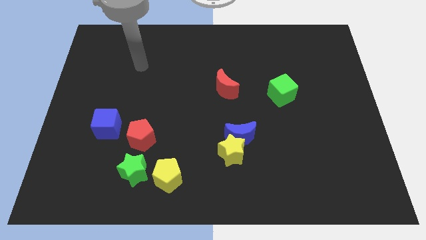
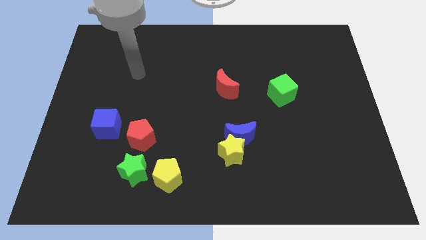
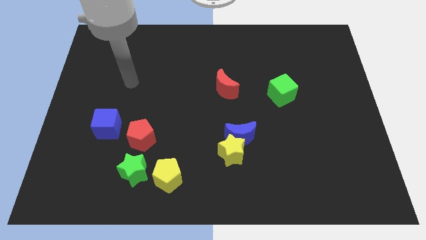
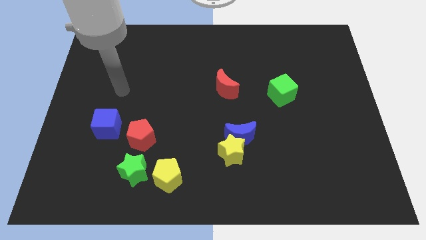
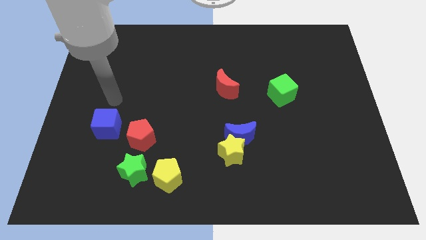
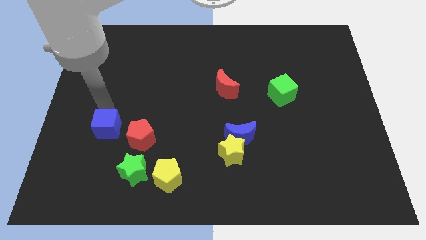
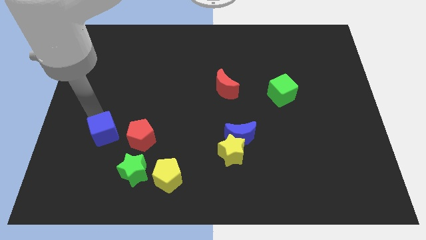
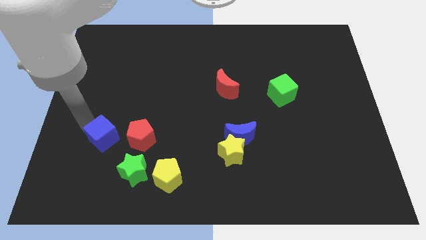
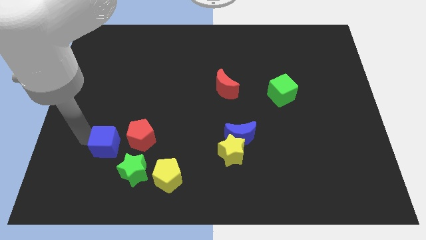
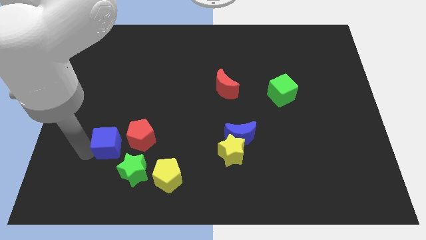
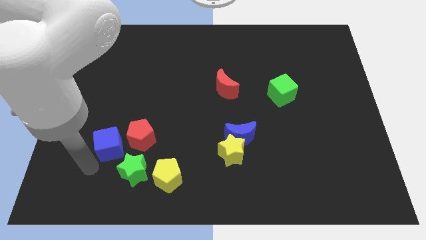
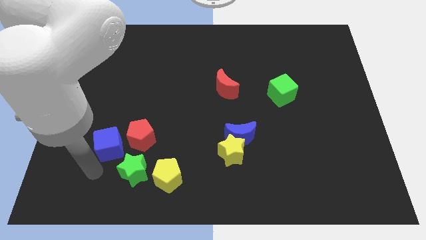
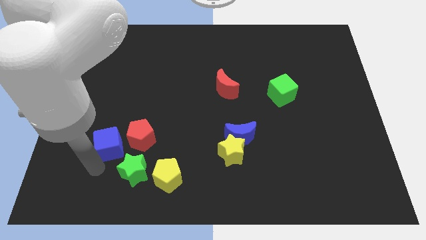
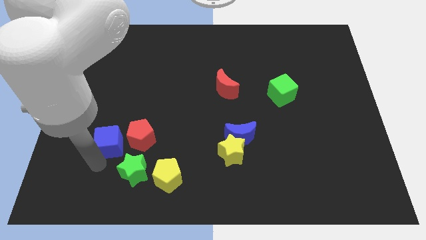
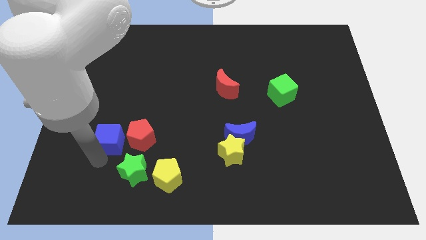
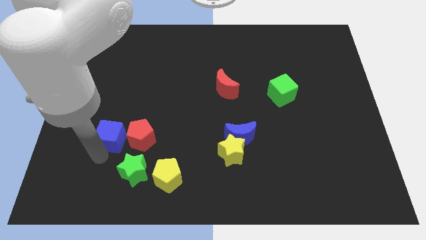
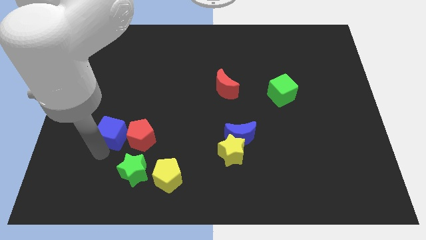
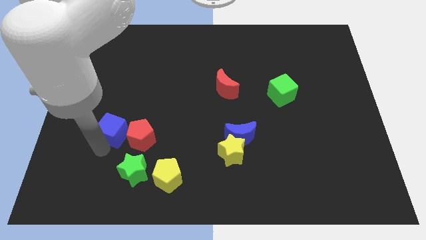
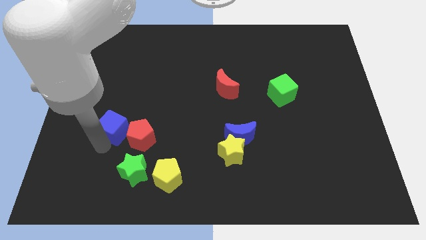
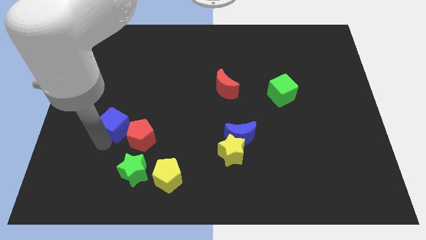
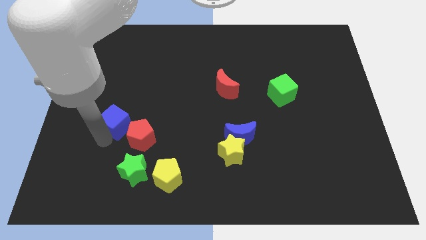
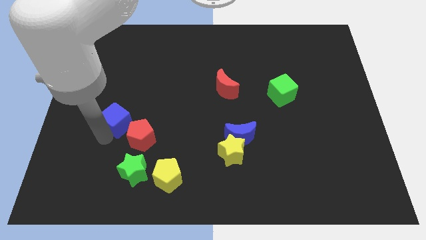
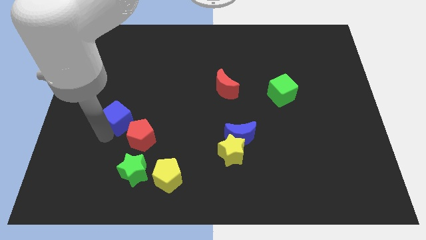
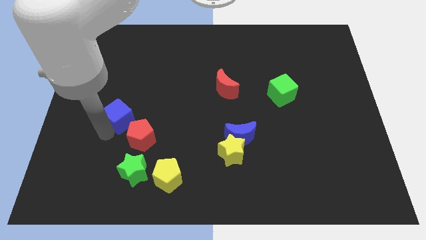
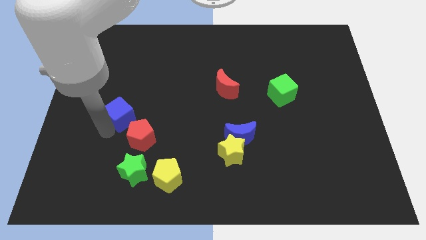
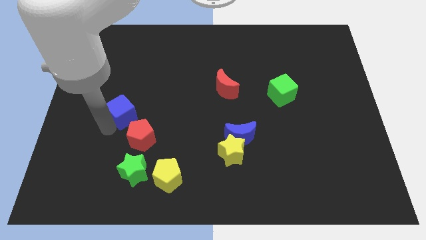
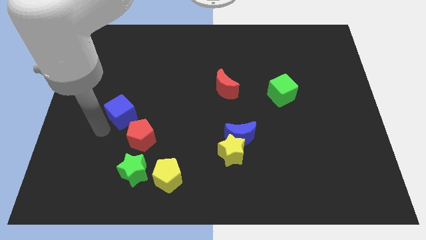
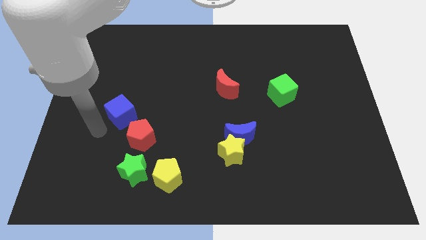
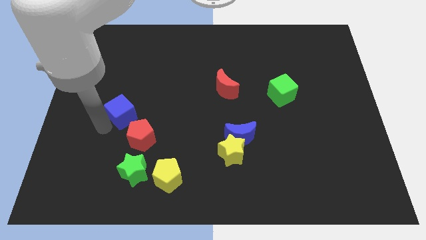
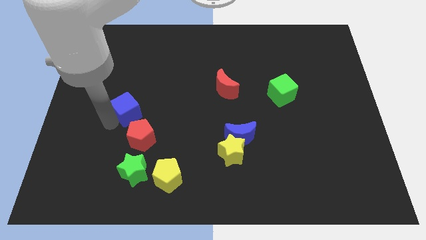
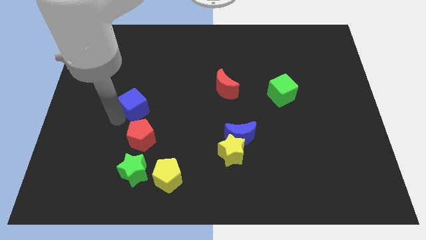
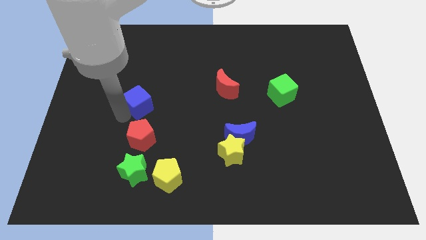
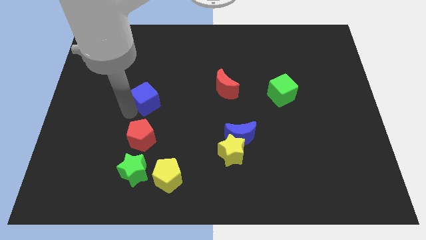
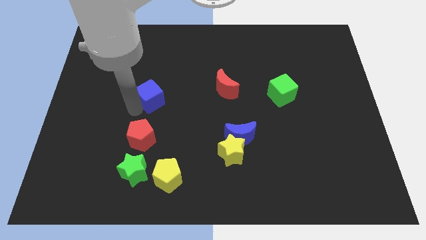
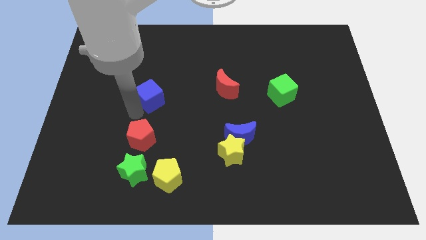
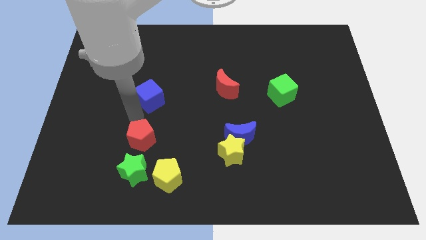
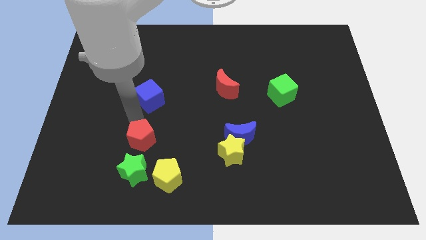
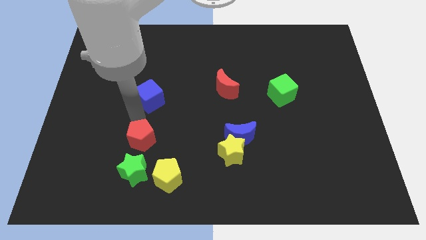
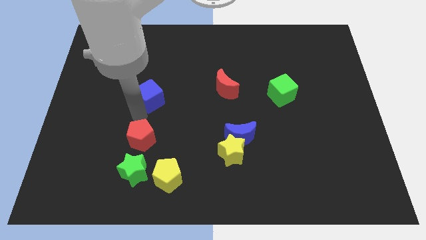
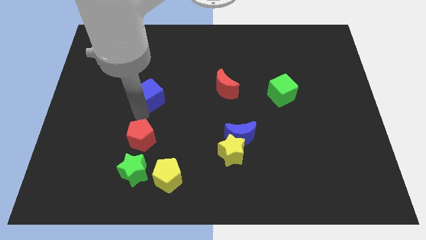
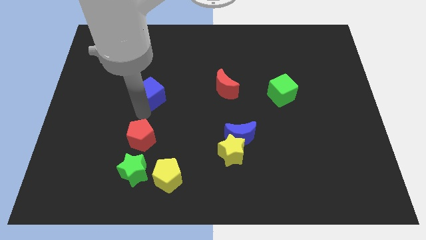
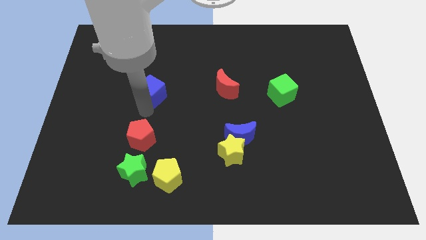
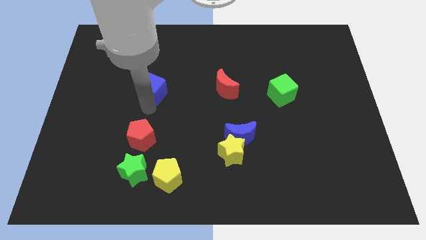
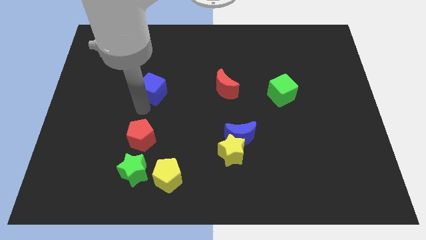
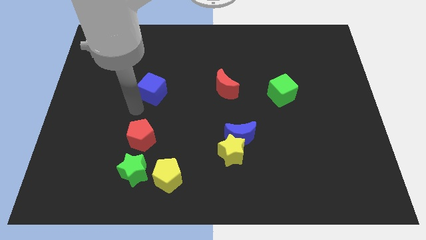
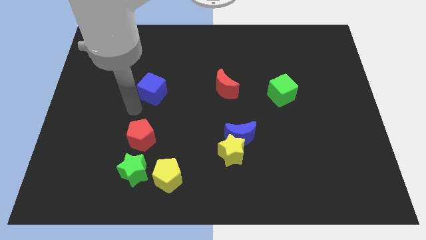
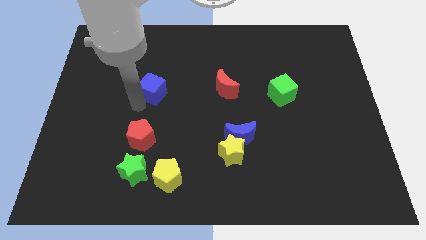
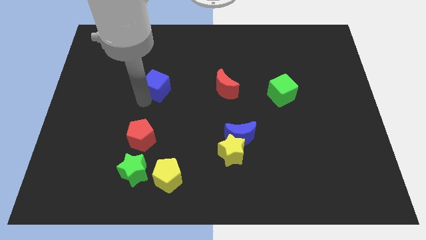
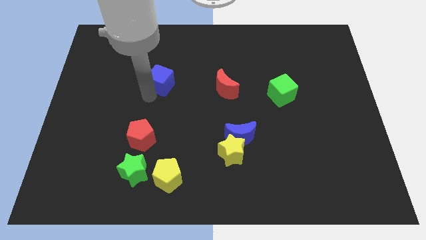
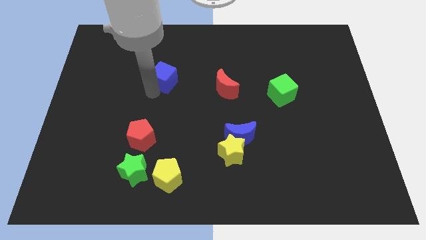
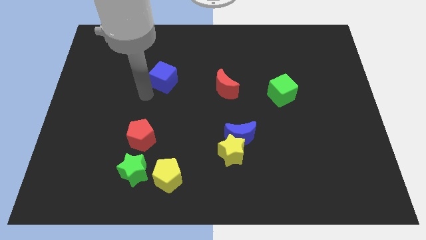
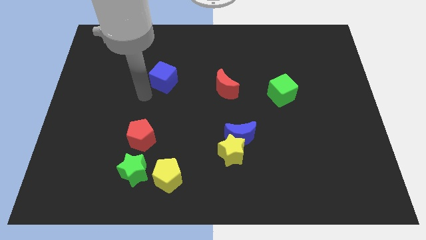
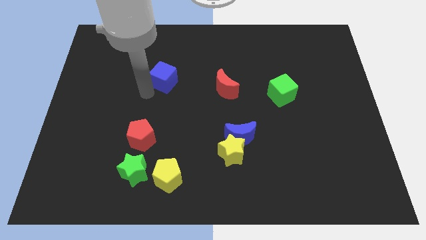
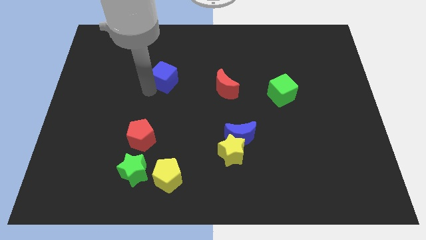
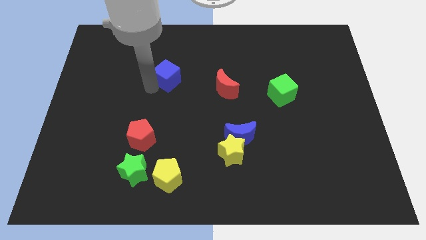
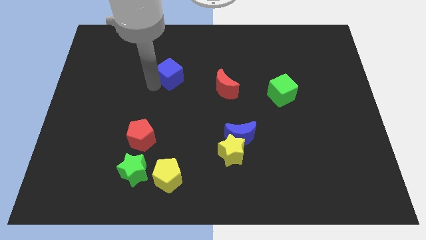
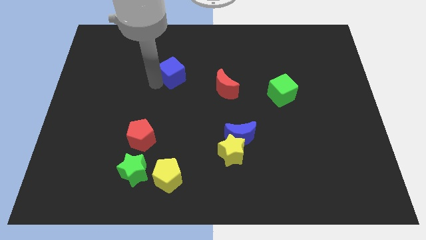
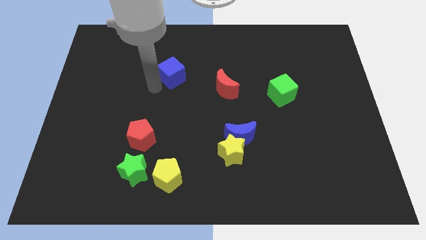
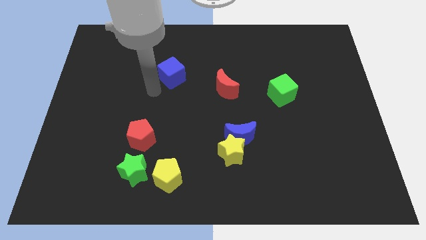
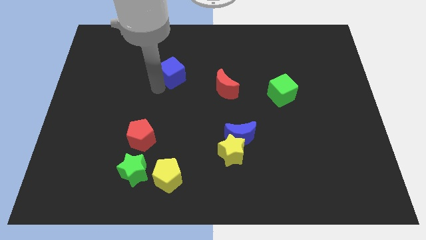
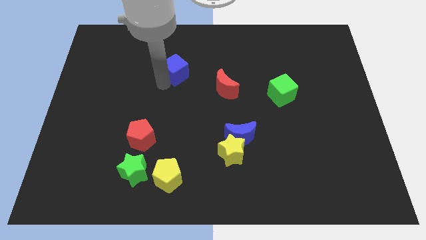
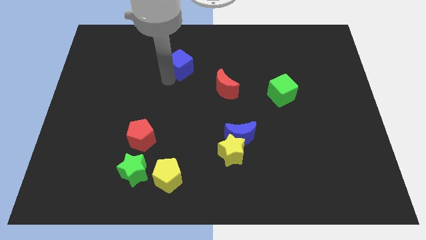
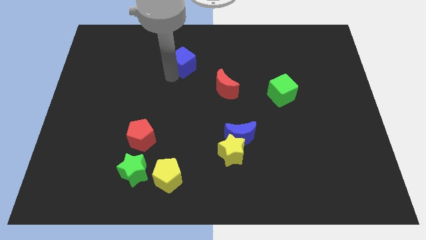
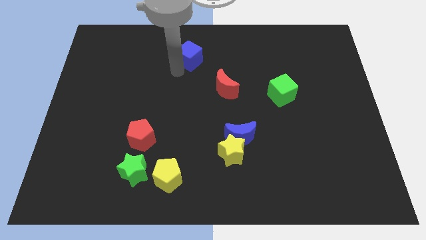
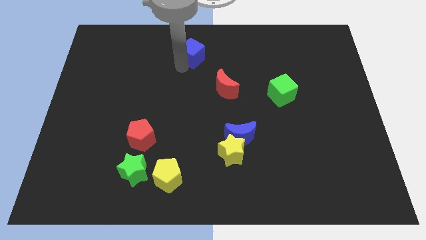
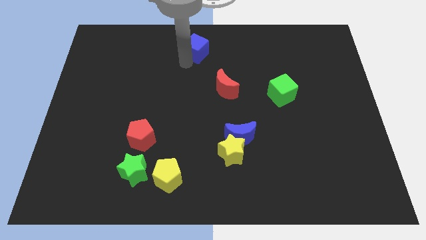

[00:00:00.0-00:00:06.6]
move the blue cube to the top side
